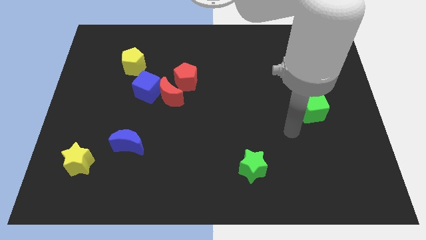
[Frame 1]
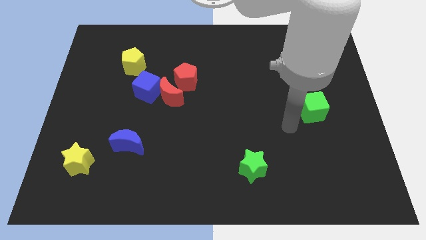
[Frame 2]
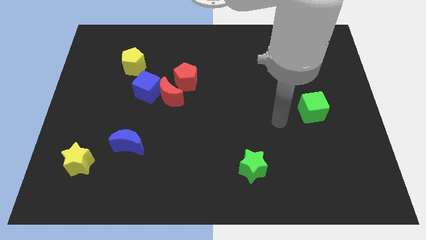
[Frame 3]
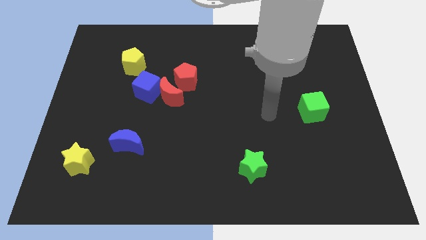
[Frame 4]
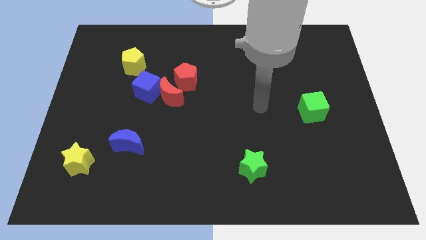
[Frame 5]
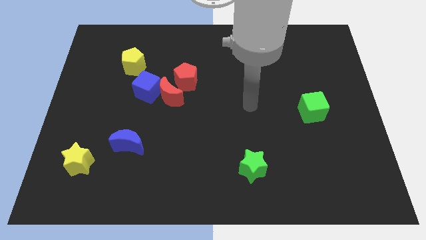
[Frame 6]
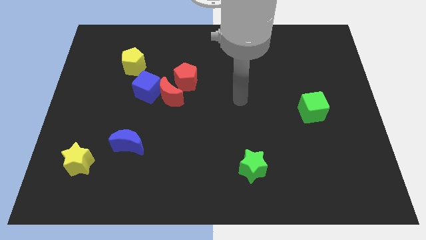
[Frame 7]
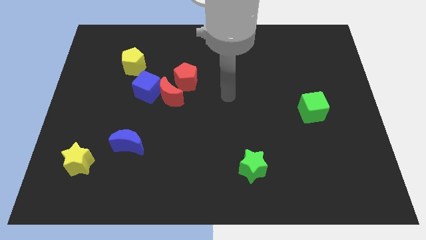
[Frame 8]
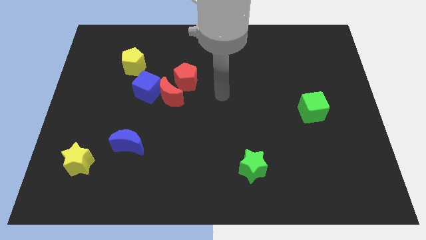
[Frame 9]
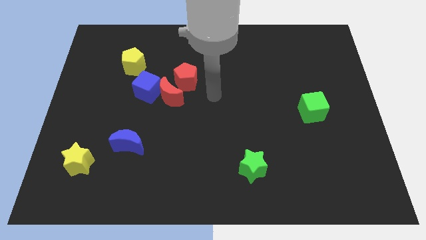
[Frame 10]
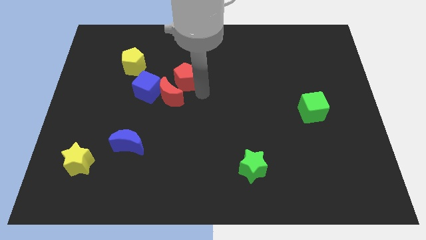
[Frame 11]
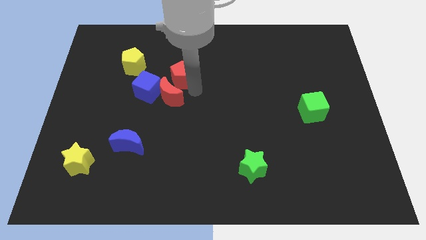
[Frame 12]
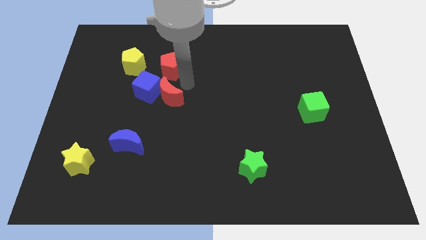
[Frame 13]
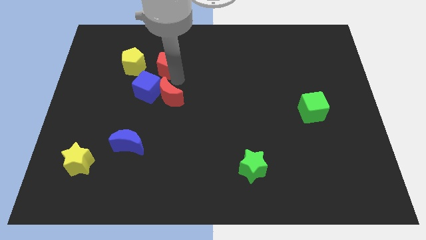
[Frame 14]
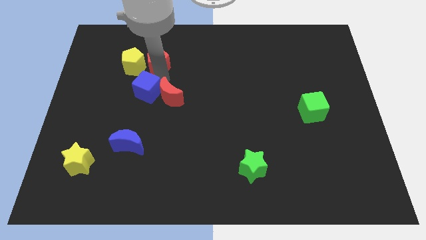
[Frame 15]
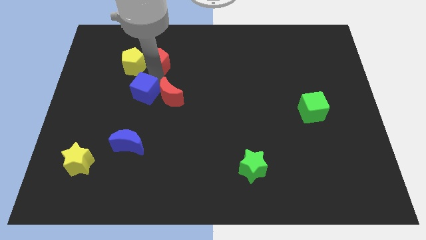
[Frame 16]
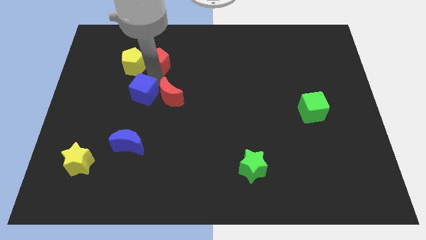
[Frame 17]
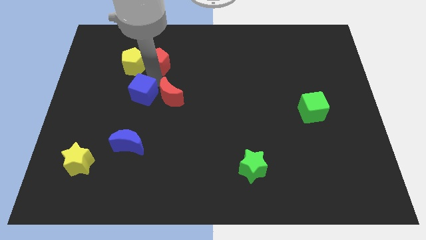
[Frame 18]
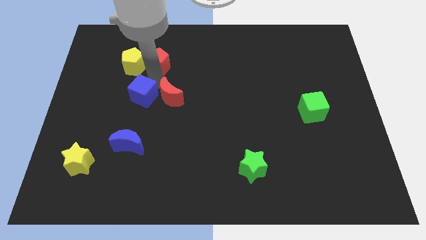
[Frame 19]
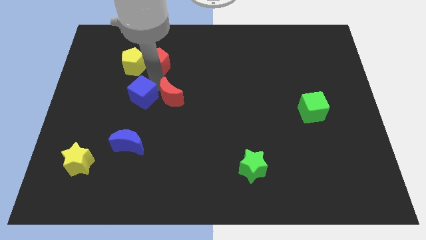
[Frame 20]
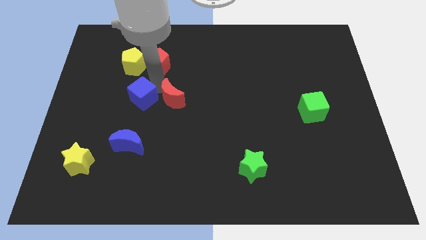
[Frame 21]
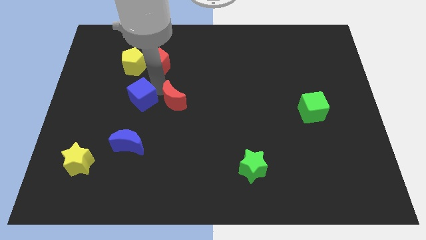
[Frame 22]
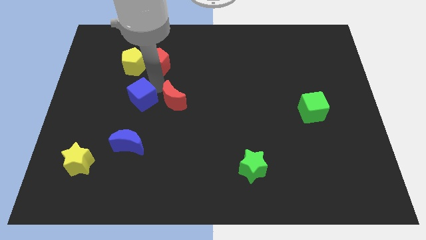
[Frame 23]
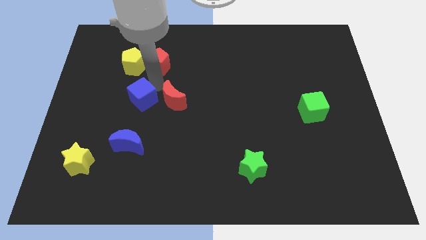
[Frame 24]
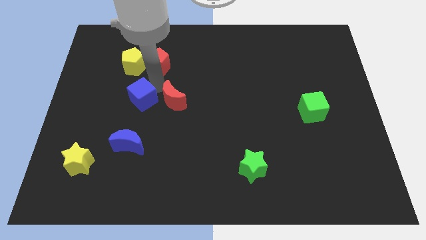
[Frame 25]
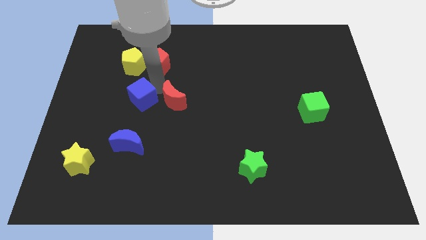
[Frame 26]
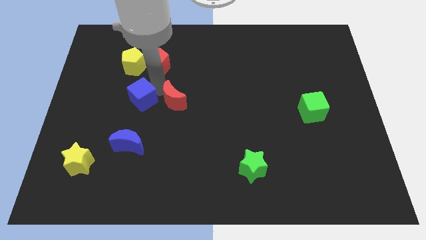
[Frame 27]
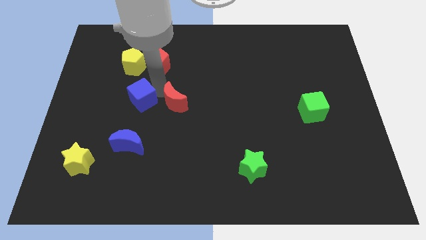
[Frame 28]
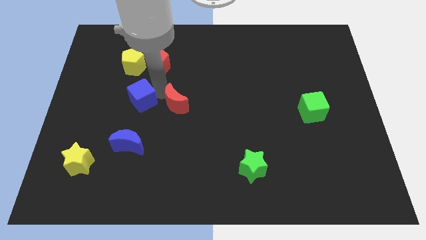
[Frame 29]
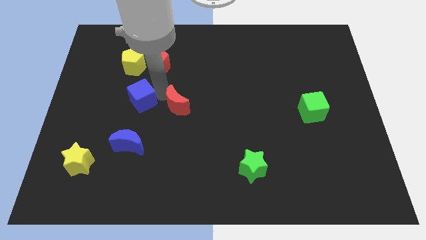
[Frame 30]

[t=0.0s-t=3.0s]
separate the red moon from the blue cube and red pentagon

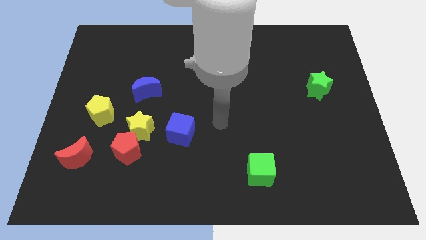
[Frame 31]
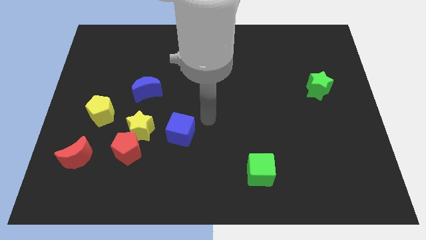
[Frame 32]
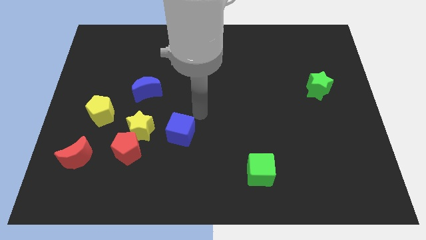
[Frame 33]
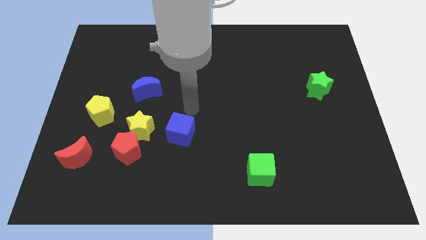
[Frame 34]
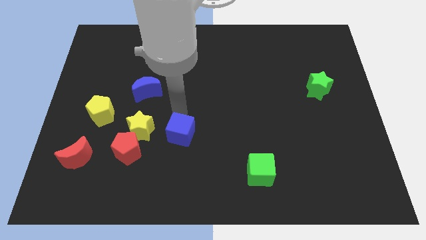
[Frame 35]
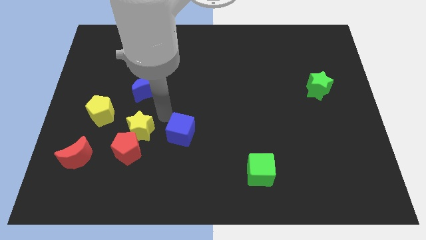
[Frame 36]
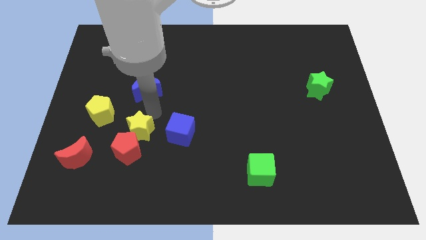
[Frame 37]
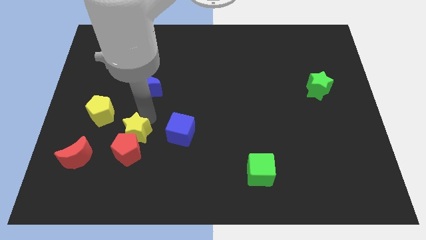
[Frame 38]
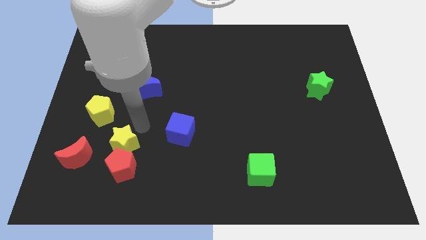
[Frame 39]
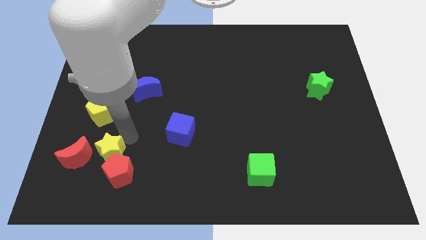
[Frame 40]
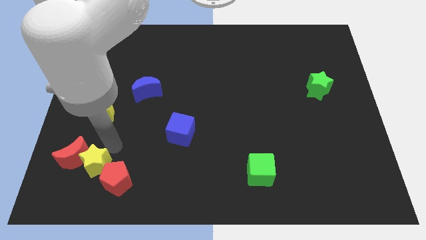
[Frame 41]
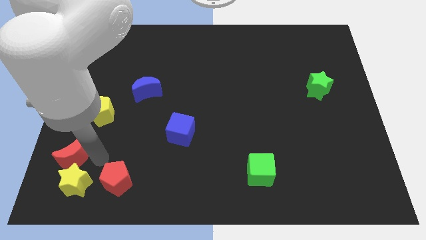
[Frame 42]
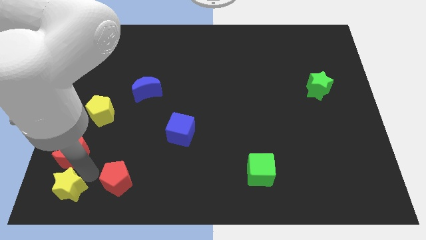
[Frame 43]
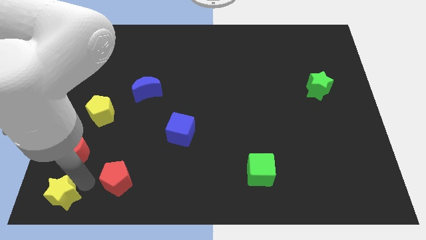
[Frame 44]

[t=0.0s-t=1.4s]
separate the red pentagon from the yellow star

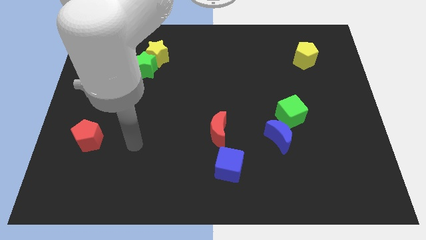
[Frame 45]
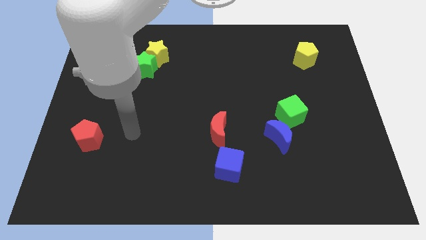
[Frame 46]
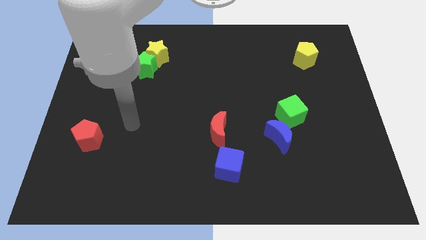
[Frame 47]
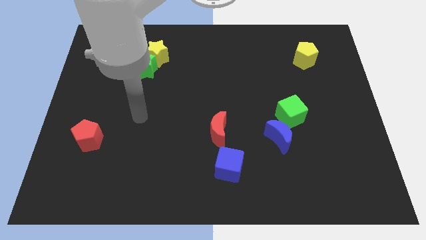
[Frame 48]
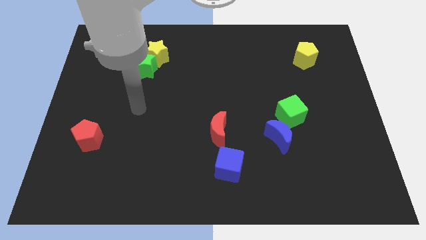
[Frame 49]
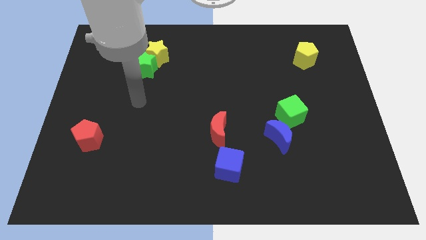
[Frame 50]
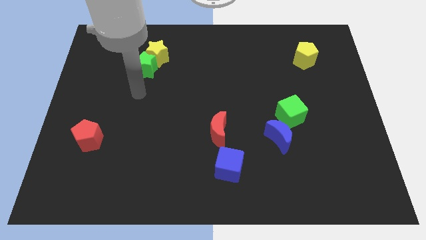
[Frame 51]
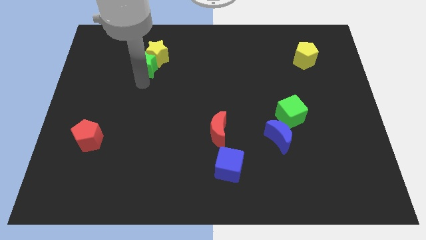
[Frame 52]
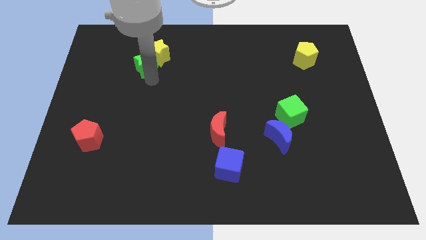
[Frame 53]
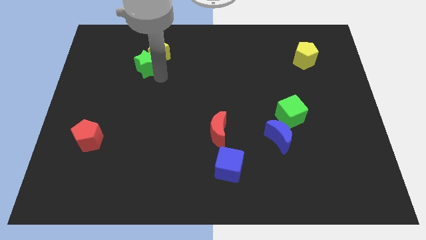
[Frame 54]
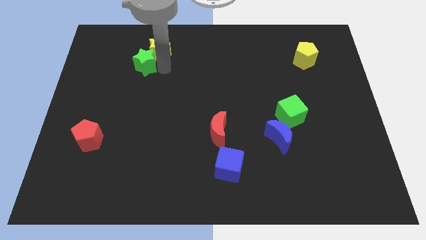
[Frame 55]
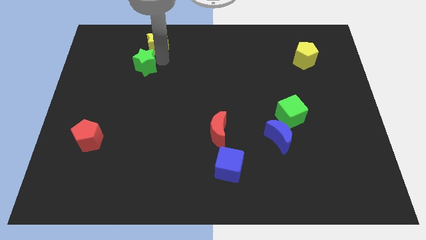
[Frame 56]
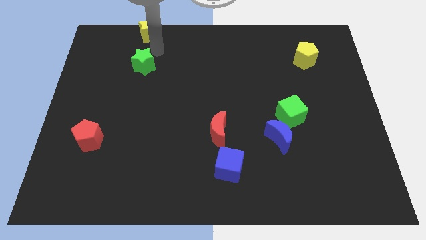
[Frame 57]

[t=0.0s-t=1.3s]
move the green star away from the yellow star

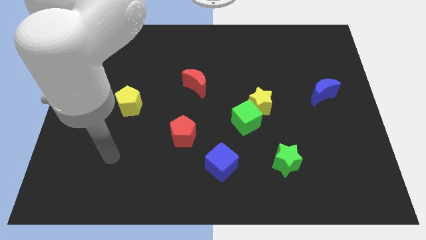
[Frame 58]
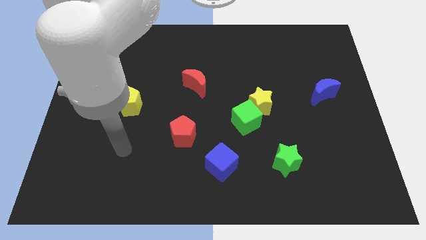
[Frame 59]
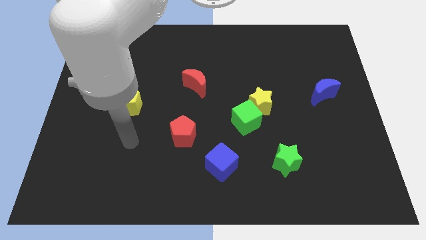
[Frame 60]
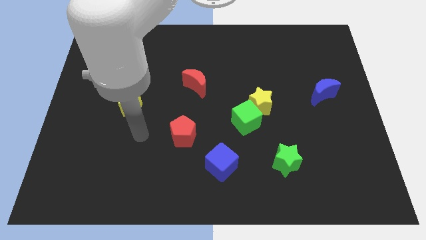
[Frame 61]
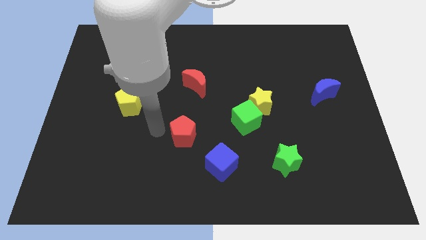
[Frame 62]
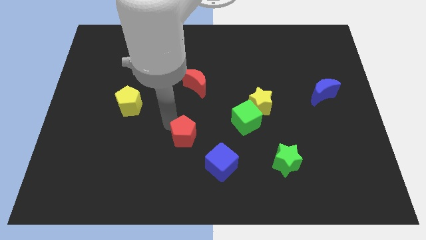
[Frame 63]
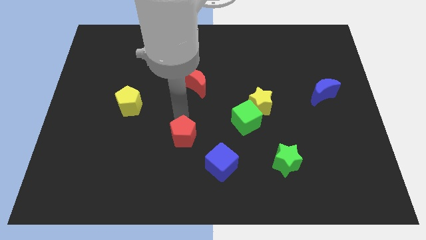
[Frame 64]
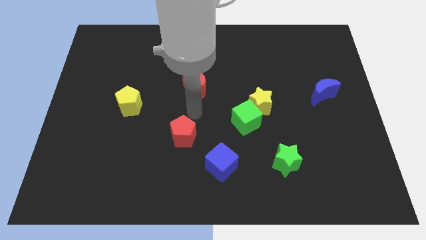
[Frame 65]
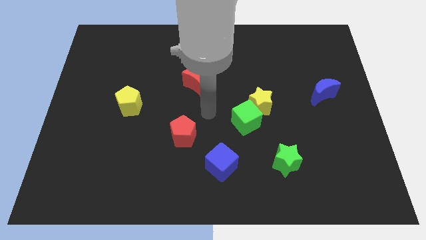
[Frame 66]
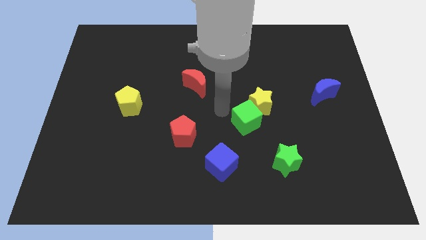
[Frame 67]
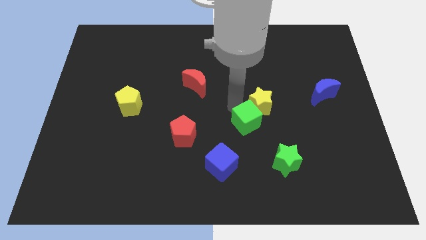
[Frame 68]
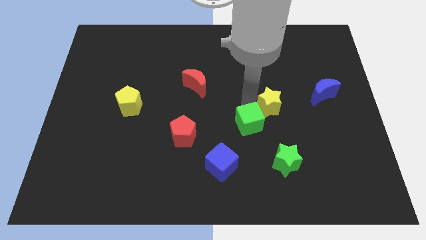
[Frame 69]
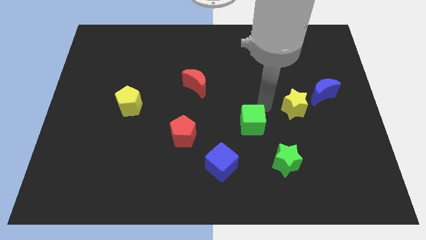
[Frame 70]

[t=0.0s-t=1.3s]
pull the green cube apart from the yellow star

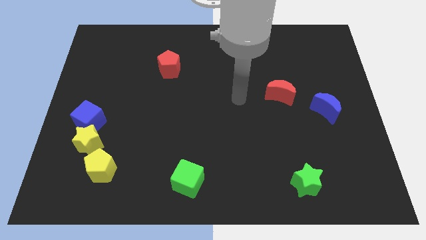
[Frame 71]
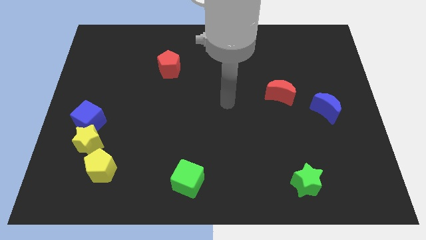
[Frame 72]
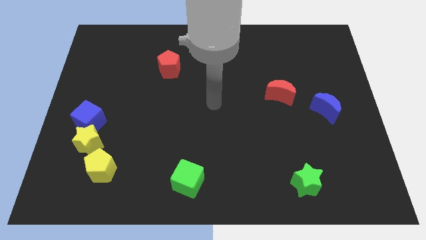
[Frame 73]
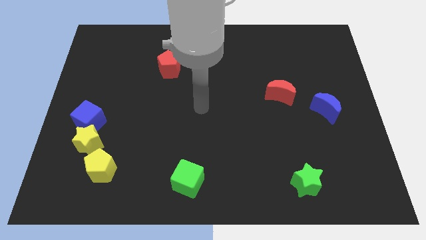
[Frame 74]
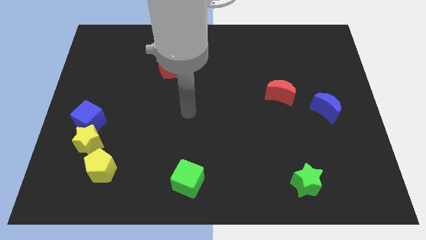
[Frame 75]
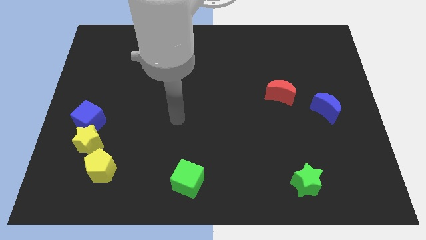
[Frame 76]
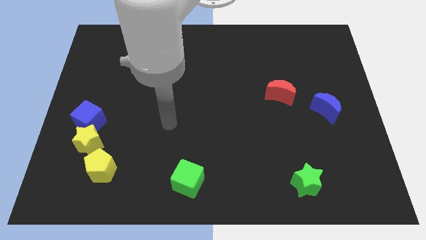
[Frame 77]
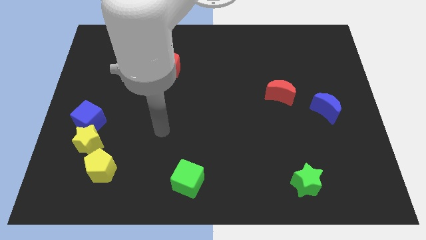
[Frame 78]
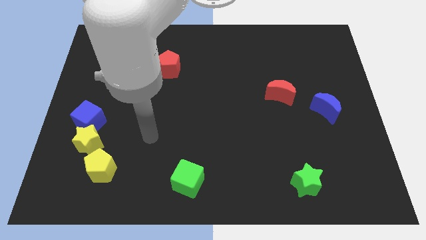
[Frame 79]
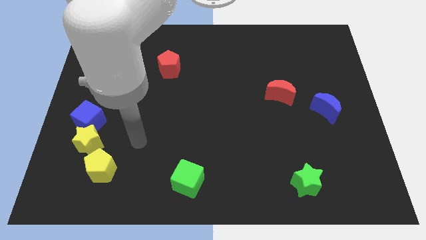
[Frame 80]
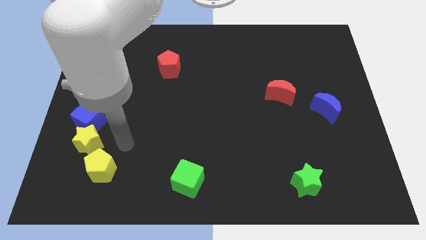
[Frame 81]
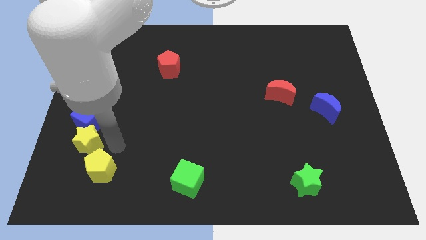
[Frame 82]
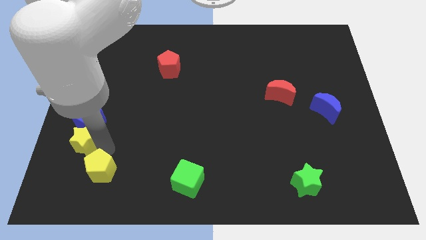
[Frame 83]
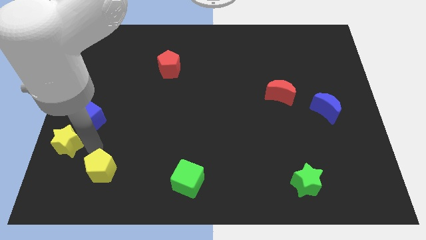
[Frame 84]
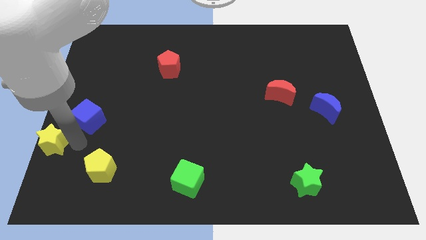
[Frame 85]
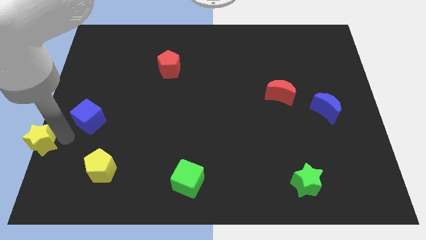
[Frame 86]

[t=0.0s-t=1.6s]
separate the blue cube from the yellow star

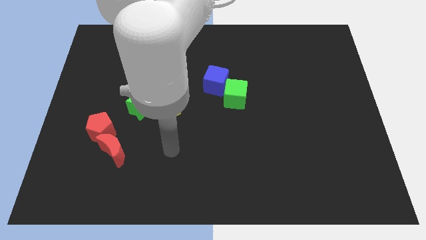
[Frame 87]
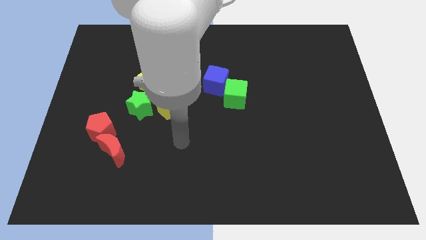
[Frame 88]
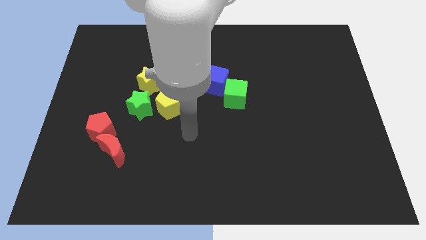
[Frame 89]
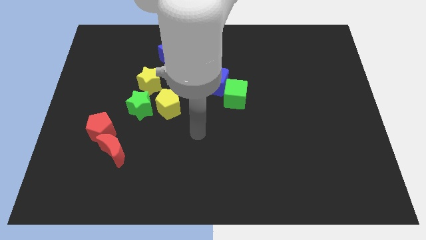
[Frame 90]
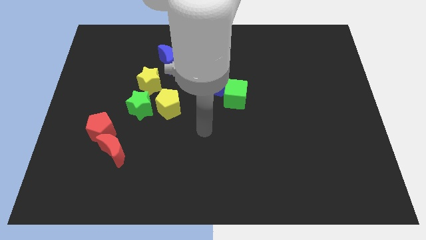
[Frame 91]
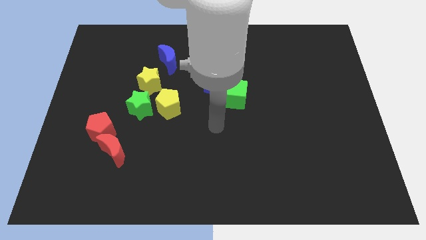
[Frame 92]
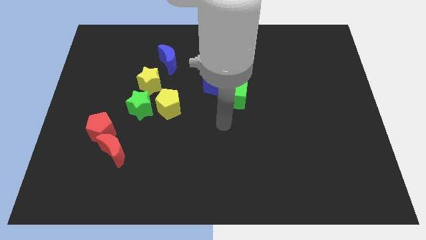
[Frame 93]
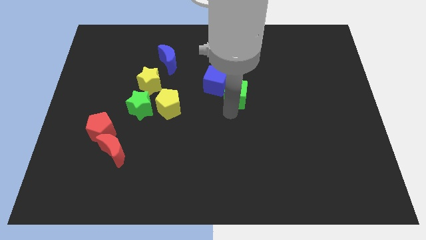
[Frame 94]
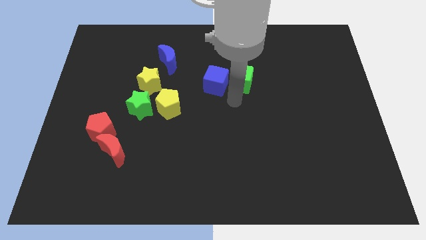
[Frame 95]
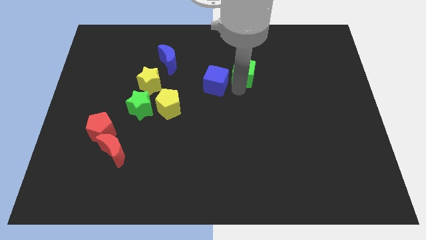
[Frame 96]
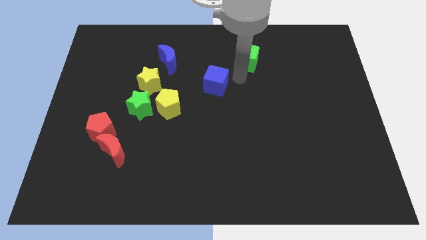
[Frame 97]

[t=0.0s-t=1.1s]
pull the blue cube apart from the green cube
